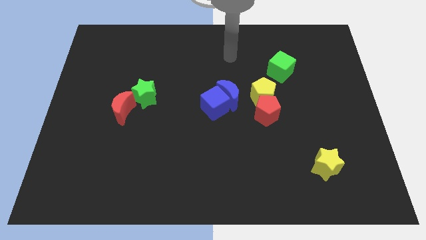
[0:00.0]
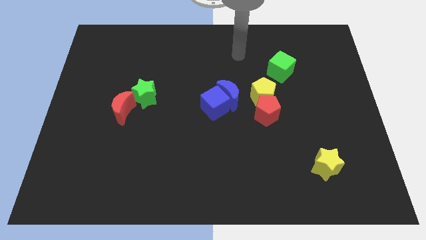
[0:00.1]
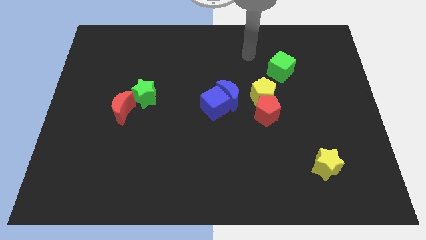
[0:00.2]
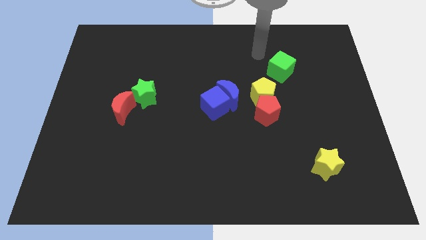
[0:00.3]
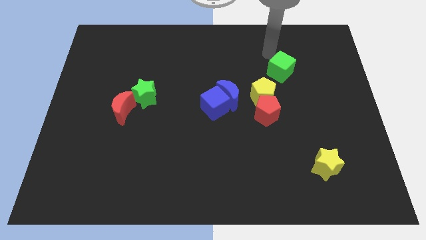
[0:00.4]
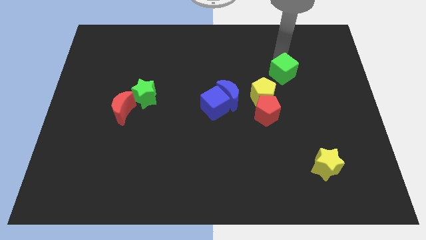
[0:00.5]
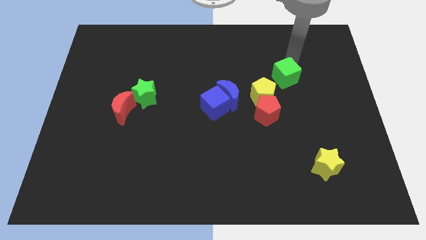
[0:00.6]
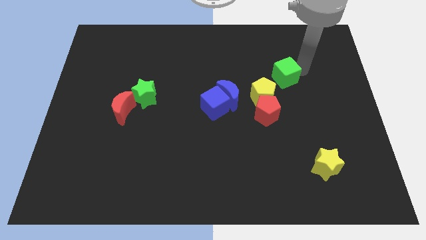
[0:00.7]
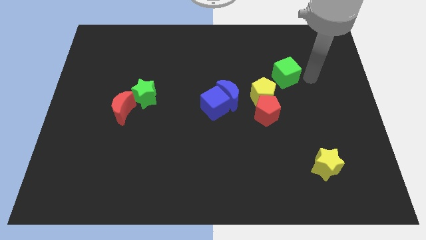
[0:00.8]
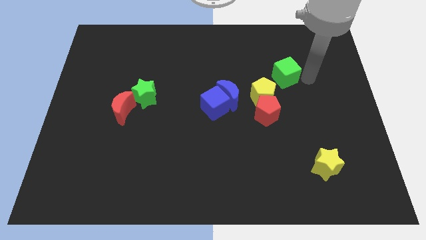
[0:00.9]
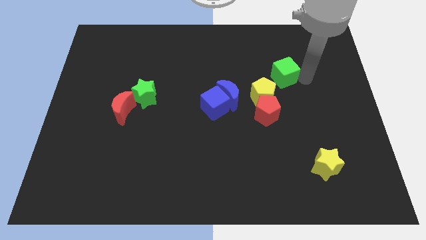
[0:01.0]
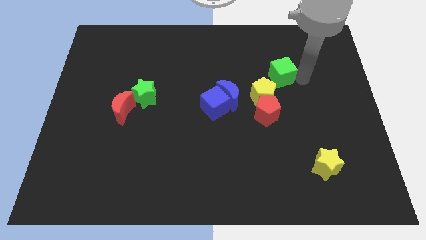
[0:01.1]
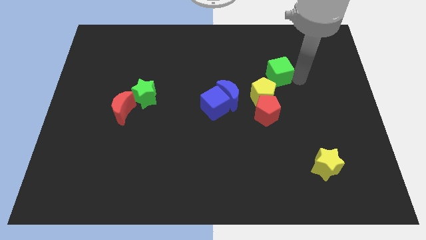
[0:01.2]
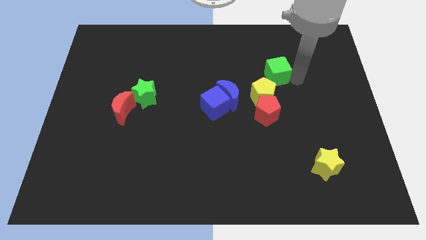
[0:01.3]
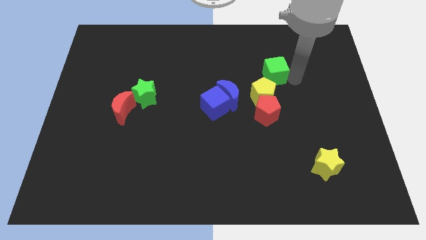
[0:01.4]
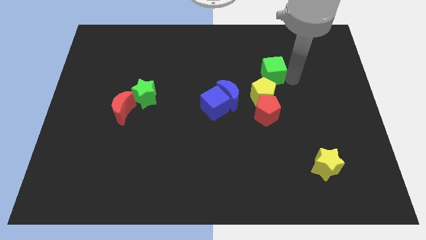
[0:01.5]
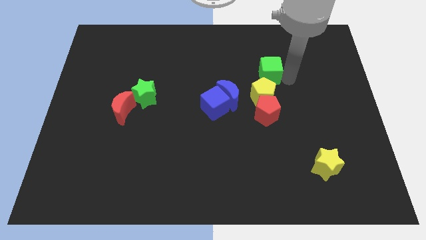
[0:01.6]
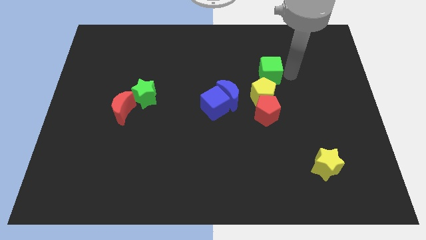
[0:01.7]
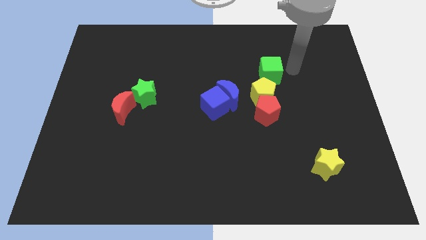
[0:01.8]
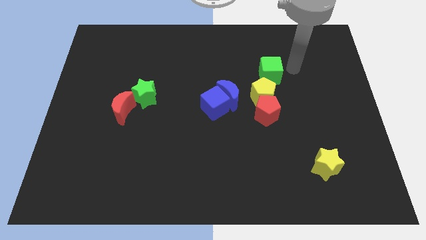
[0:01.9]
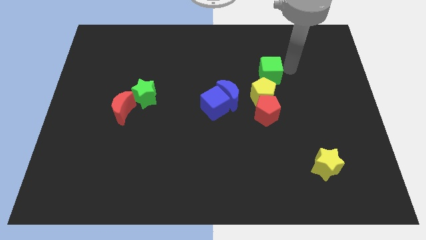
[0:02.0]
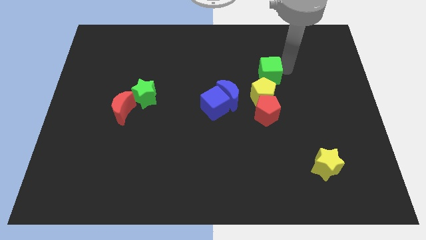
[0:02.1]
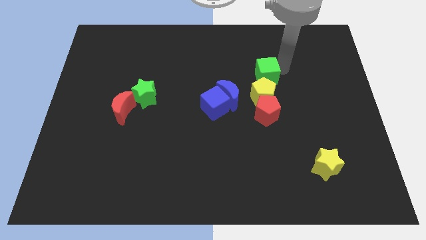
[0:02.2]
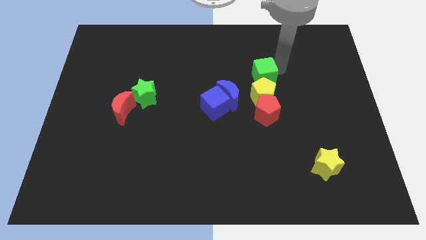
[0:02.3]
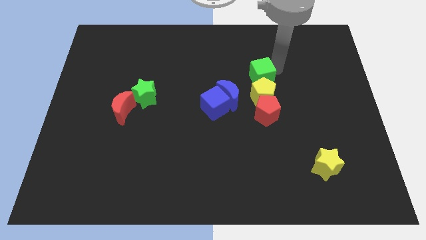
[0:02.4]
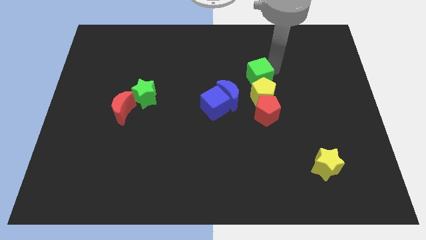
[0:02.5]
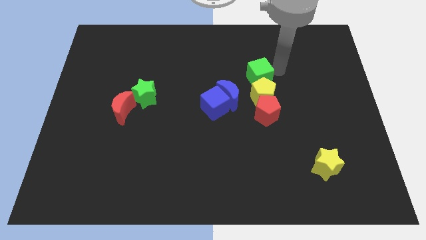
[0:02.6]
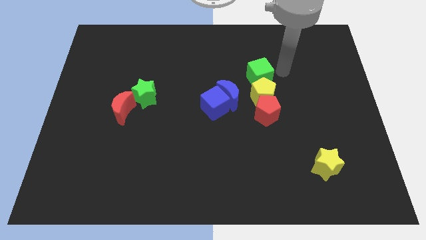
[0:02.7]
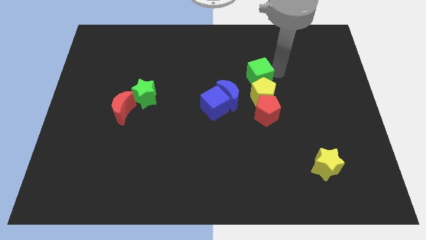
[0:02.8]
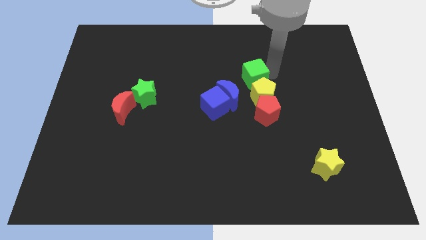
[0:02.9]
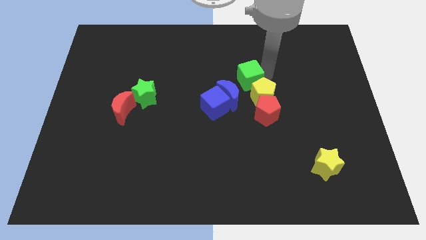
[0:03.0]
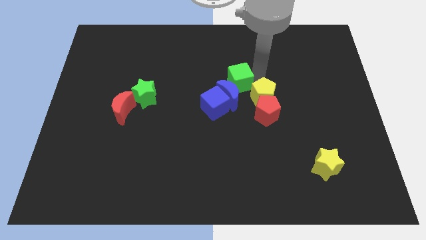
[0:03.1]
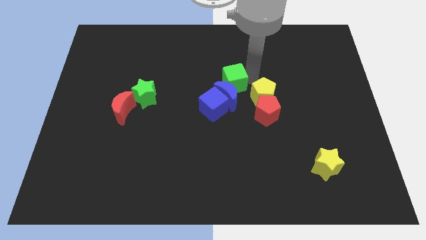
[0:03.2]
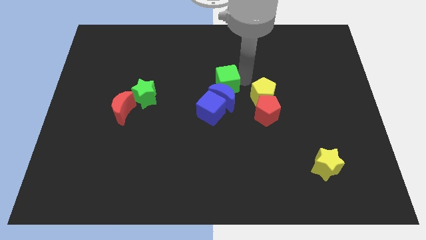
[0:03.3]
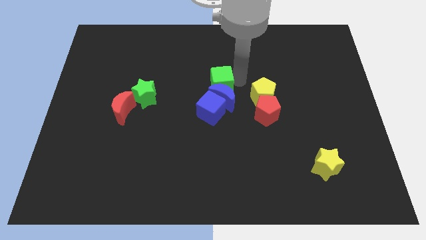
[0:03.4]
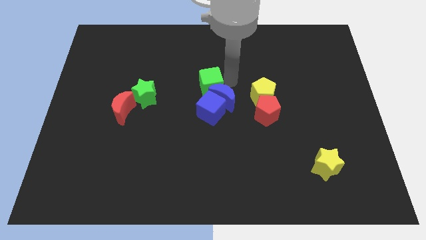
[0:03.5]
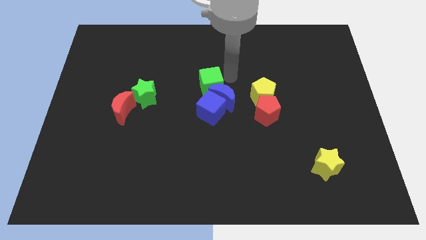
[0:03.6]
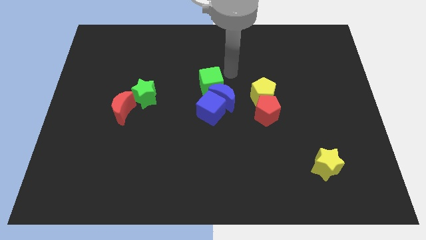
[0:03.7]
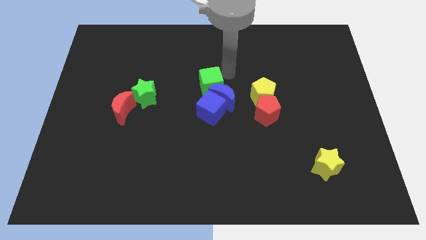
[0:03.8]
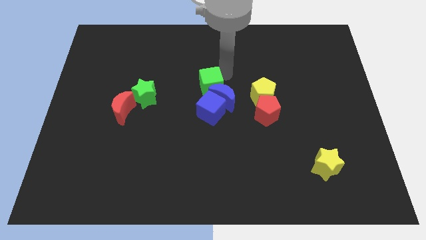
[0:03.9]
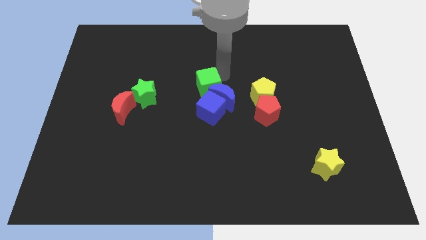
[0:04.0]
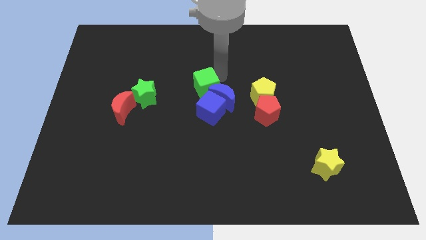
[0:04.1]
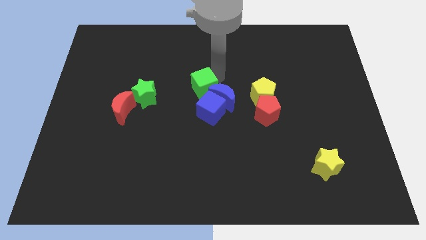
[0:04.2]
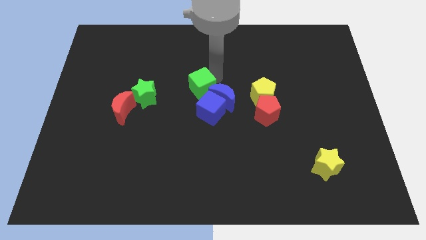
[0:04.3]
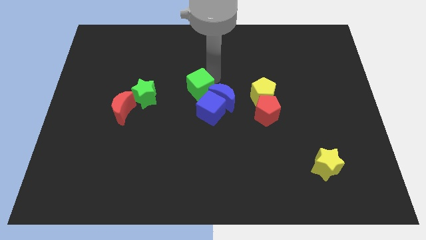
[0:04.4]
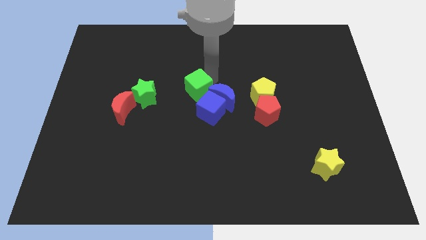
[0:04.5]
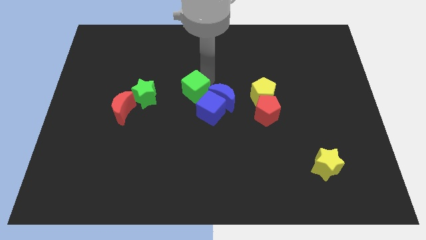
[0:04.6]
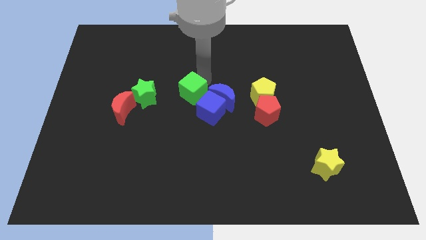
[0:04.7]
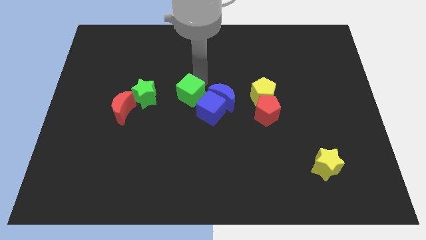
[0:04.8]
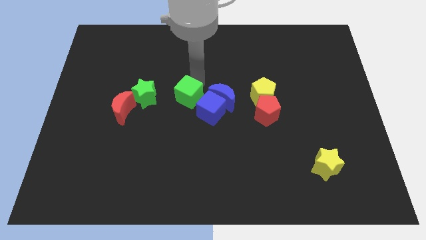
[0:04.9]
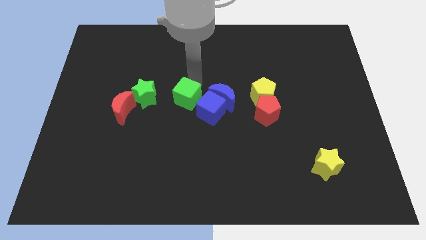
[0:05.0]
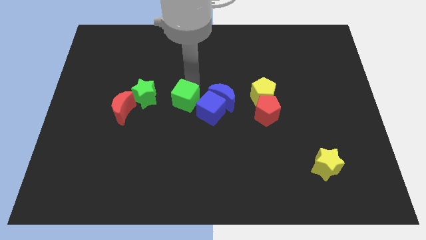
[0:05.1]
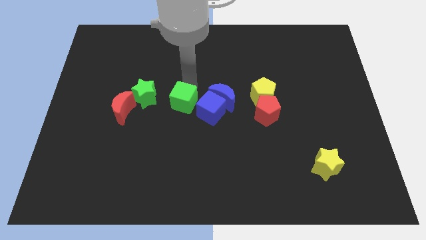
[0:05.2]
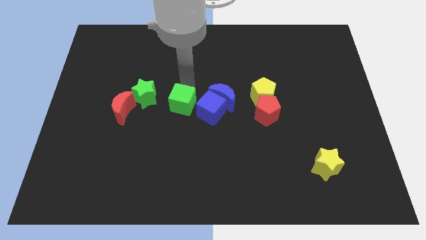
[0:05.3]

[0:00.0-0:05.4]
slide the green cube down and then left

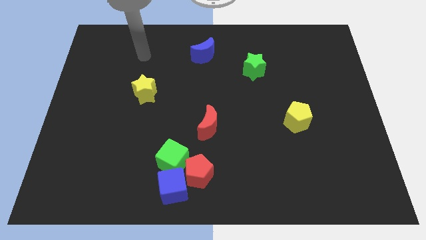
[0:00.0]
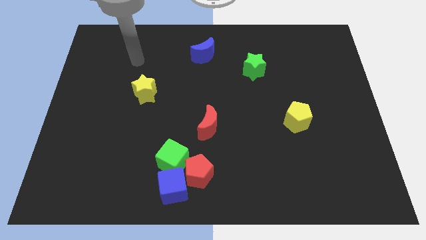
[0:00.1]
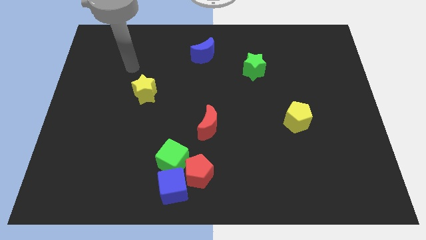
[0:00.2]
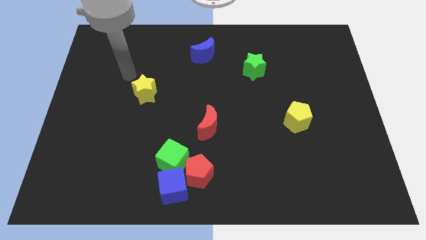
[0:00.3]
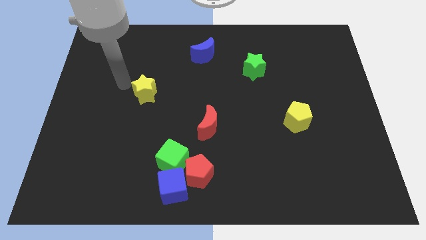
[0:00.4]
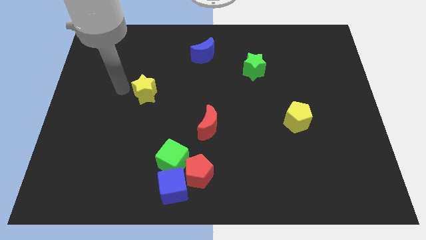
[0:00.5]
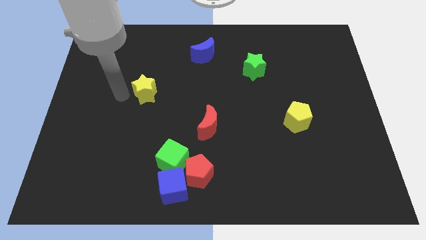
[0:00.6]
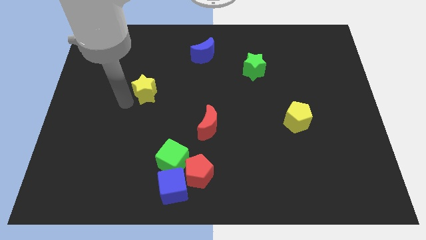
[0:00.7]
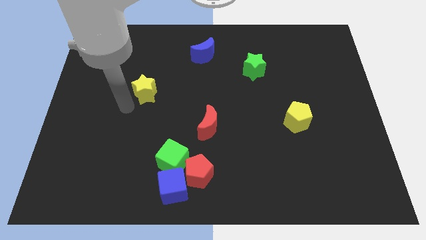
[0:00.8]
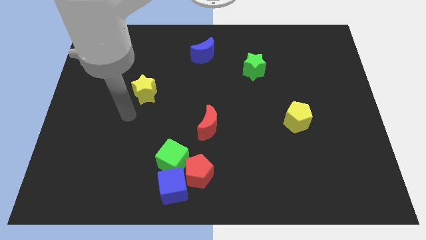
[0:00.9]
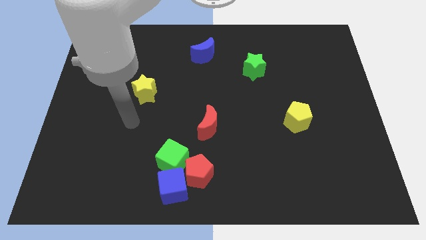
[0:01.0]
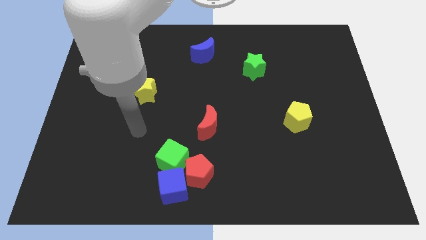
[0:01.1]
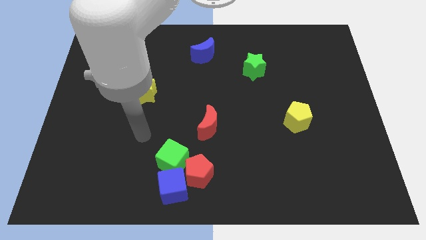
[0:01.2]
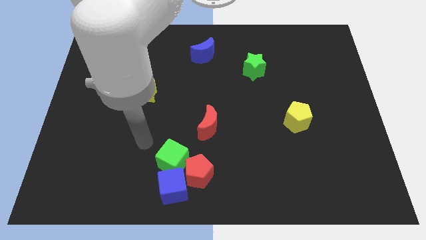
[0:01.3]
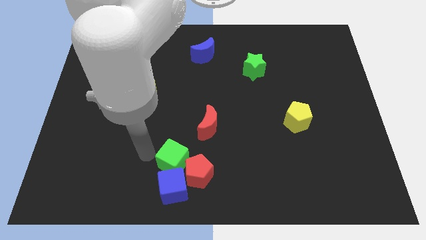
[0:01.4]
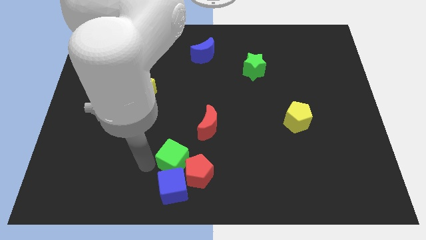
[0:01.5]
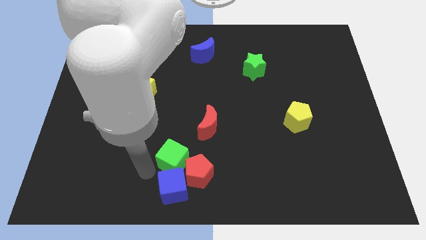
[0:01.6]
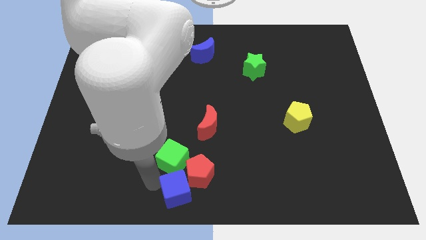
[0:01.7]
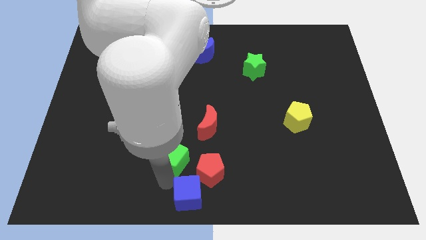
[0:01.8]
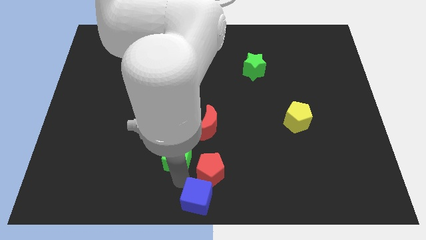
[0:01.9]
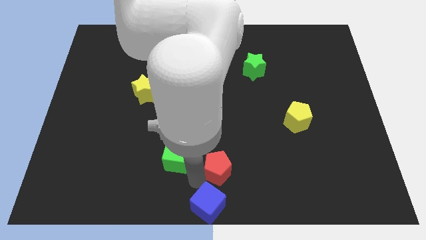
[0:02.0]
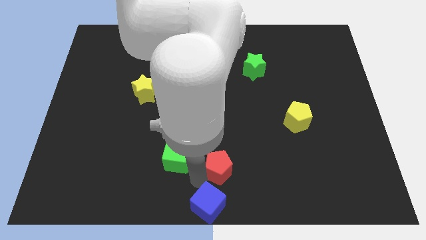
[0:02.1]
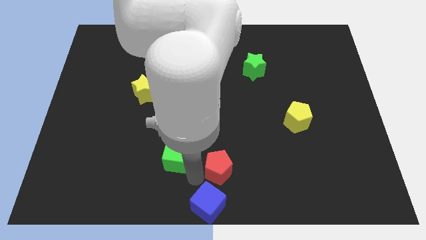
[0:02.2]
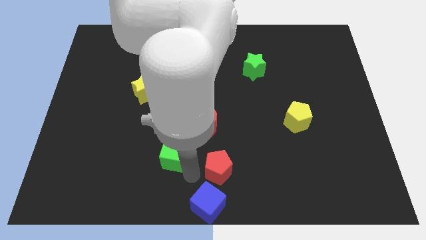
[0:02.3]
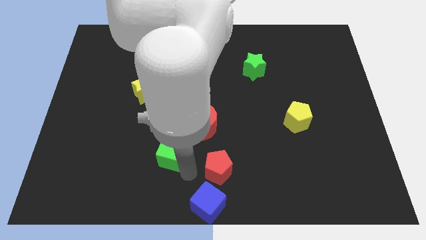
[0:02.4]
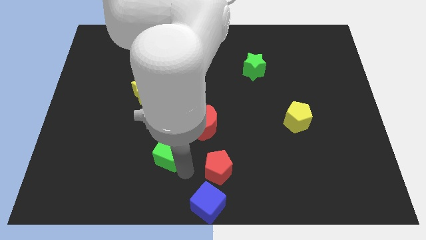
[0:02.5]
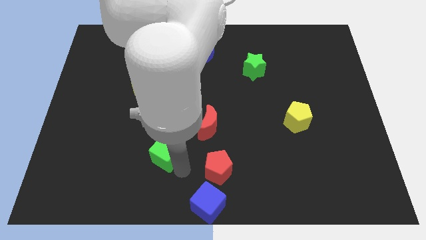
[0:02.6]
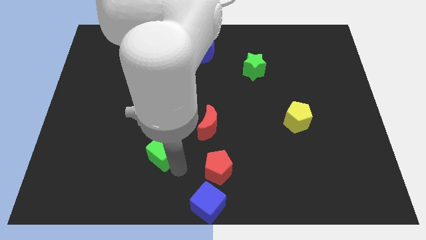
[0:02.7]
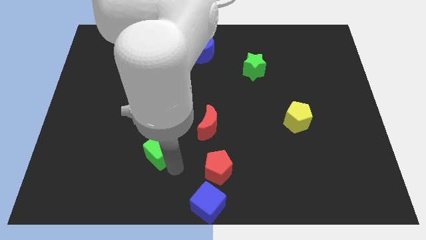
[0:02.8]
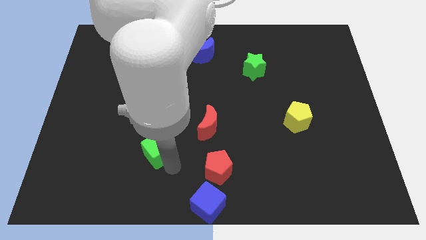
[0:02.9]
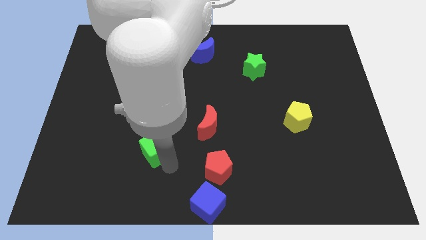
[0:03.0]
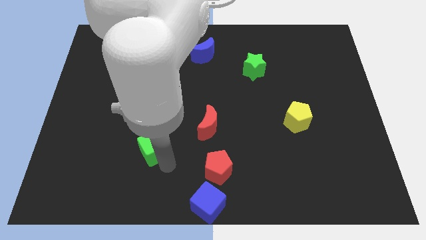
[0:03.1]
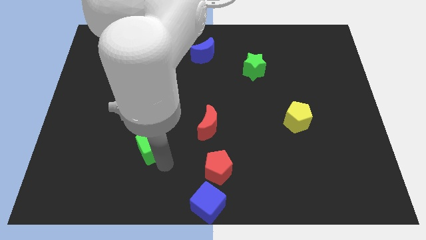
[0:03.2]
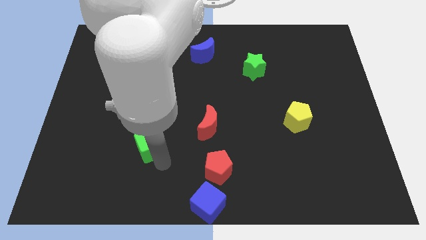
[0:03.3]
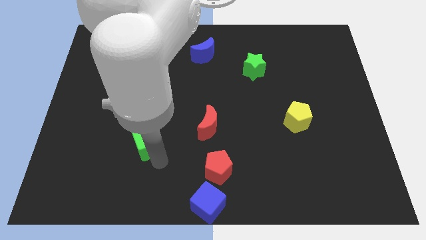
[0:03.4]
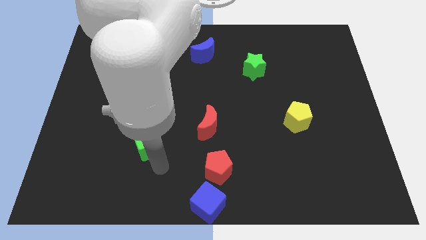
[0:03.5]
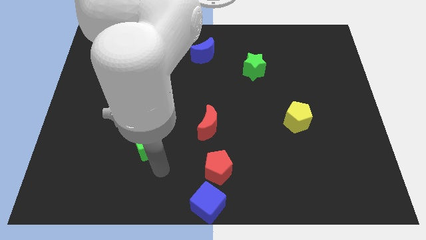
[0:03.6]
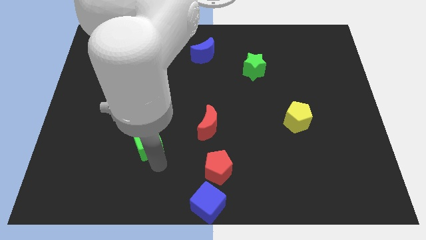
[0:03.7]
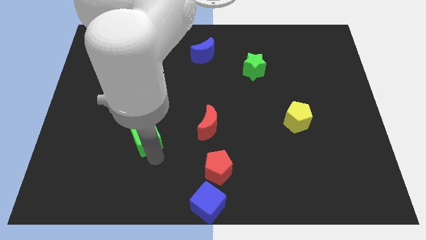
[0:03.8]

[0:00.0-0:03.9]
push the green cube a little diagonally upwards and to the left
